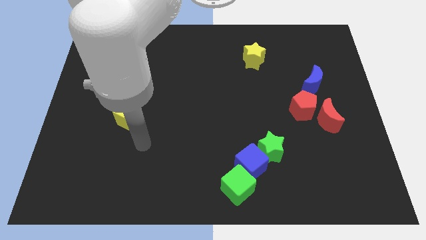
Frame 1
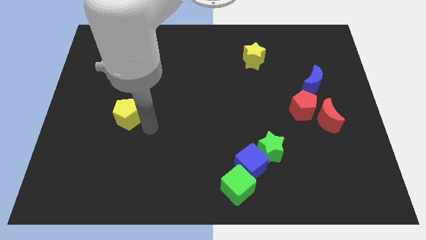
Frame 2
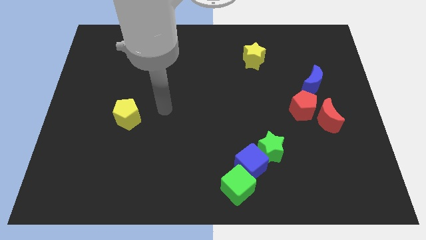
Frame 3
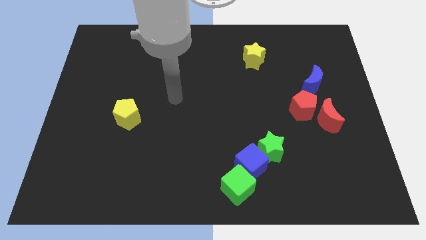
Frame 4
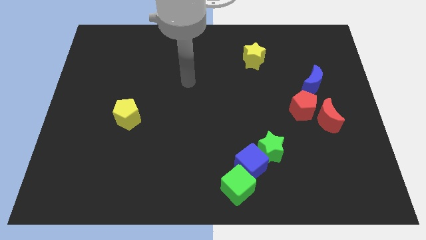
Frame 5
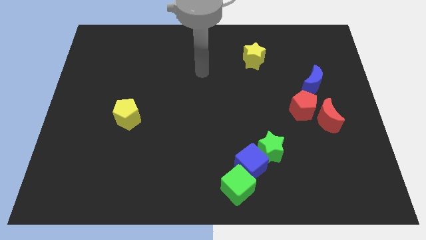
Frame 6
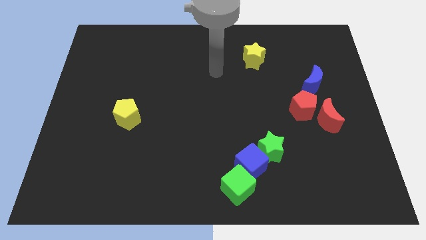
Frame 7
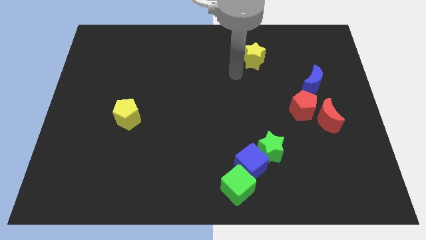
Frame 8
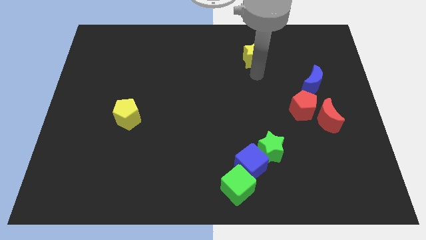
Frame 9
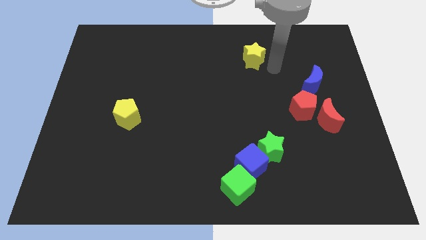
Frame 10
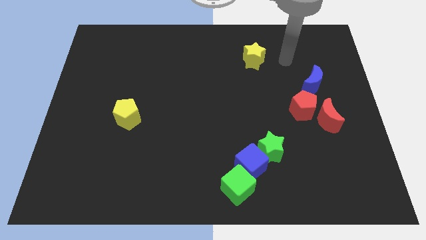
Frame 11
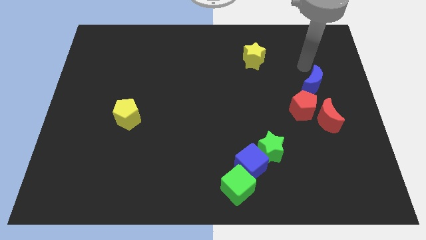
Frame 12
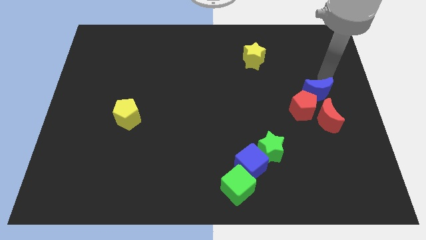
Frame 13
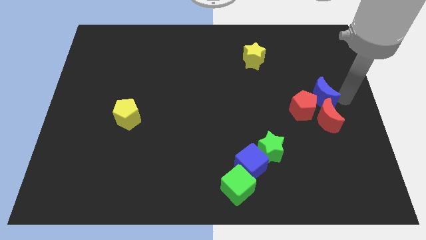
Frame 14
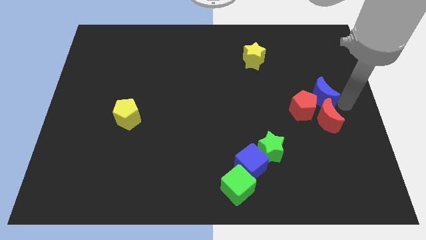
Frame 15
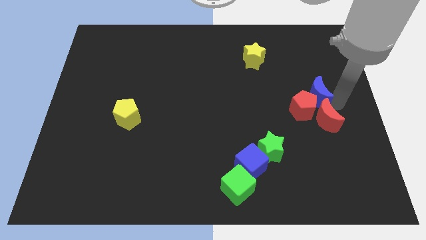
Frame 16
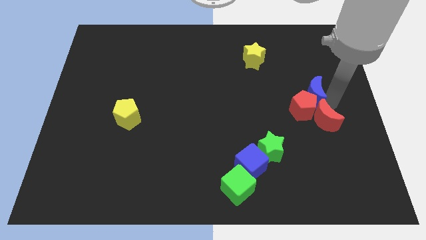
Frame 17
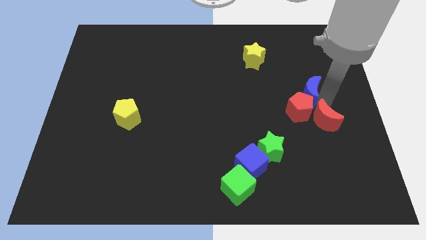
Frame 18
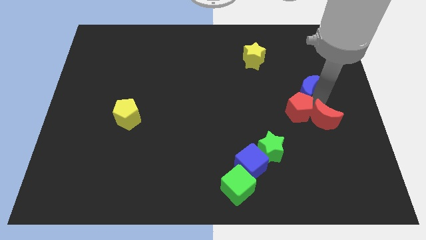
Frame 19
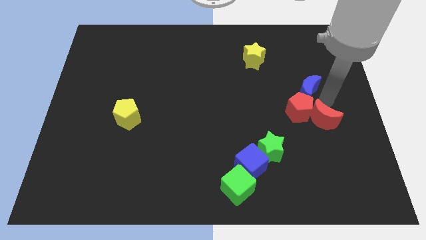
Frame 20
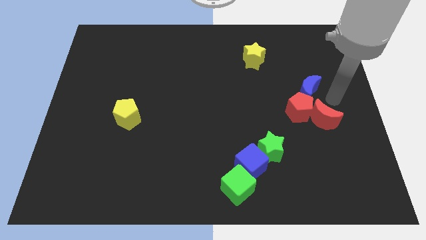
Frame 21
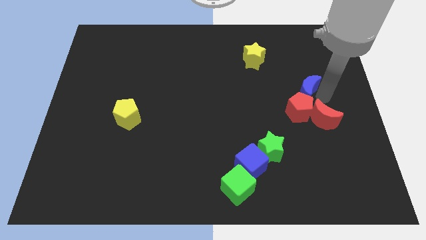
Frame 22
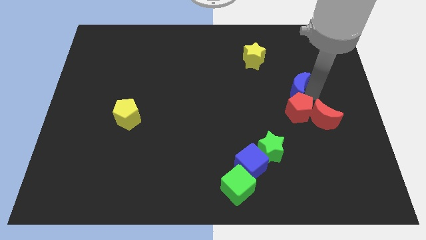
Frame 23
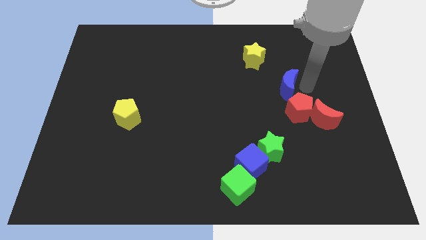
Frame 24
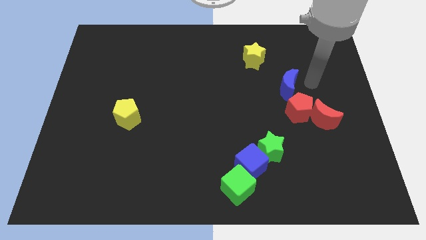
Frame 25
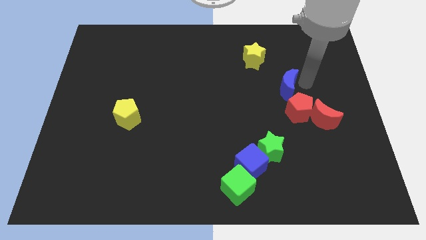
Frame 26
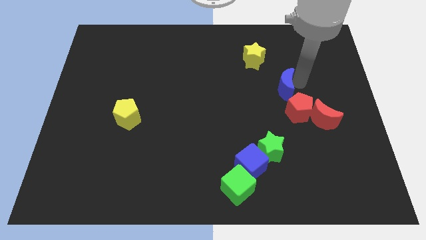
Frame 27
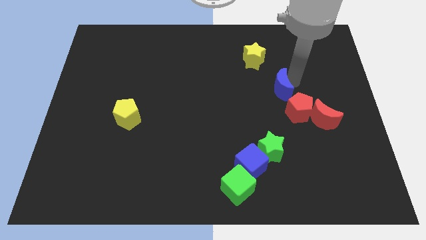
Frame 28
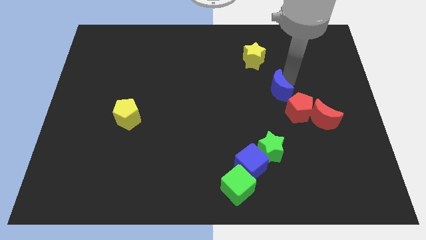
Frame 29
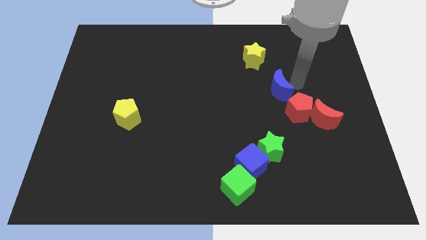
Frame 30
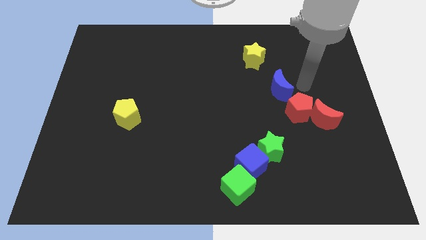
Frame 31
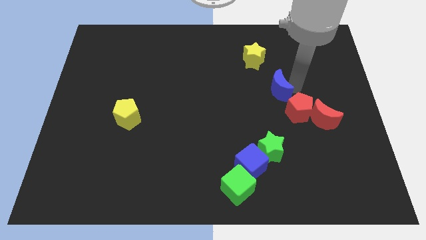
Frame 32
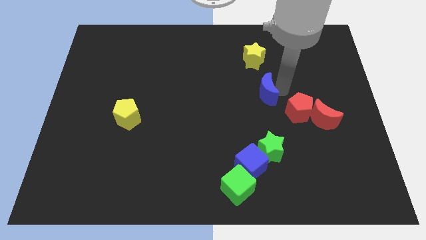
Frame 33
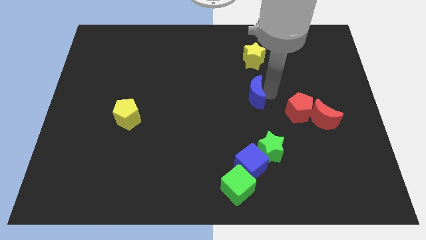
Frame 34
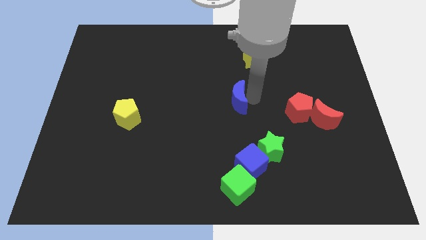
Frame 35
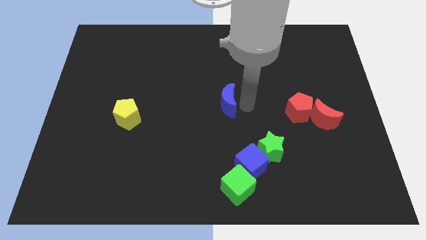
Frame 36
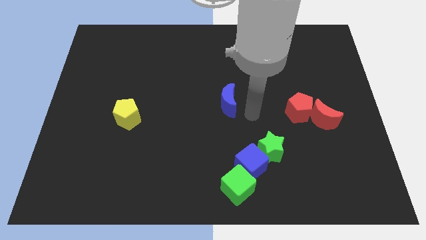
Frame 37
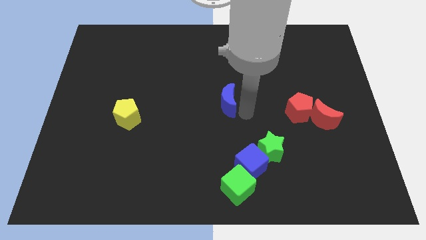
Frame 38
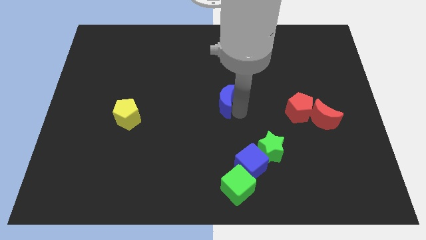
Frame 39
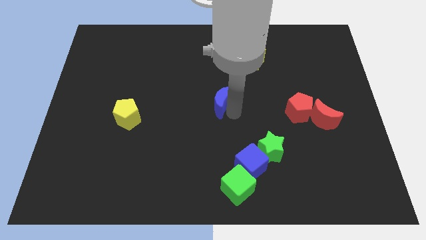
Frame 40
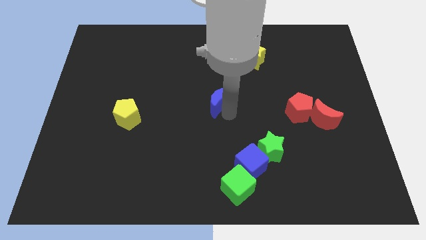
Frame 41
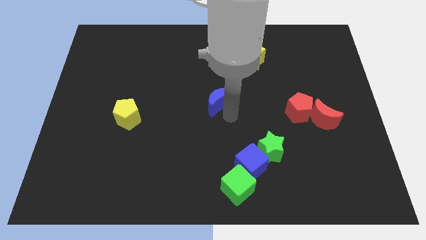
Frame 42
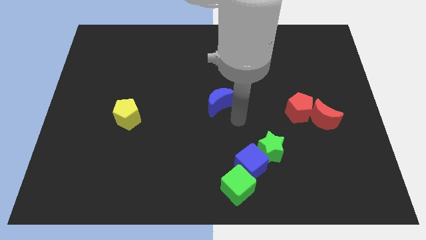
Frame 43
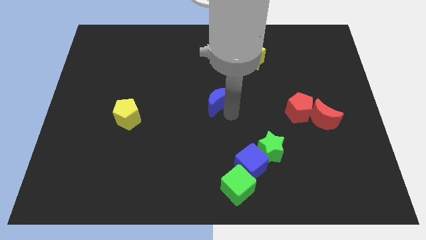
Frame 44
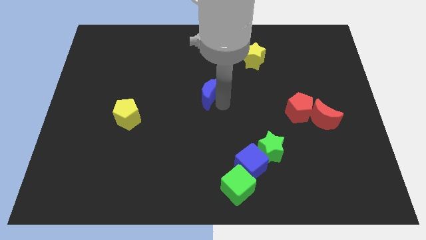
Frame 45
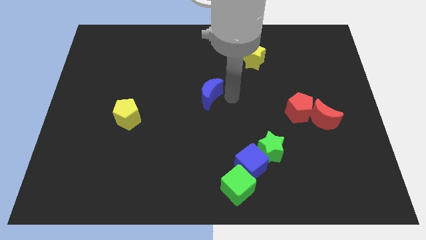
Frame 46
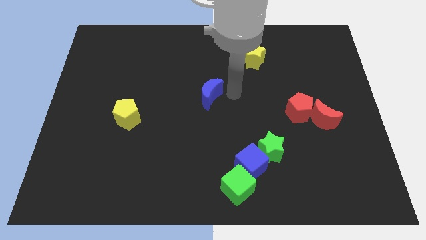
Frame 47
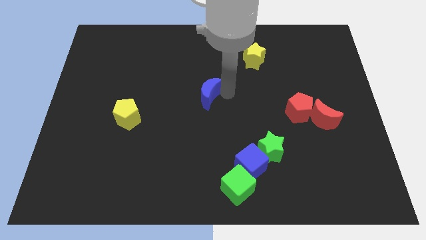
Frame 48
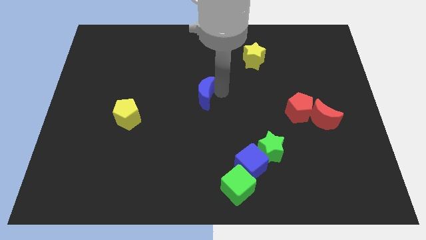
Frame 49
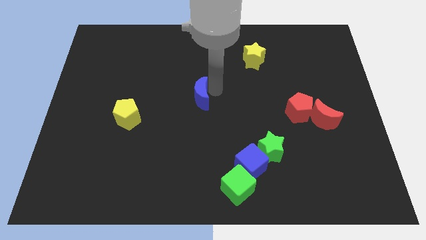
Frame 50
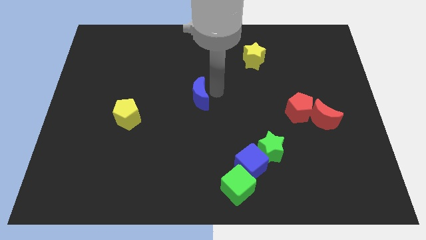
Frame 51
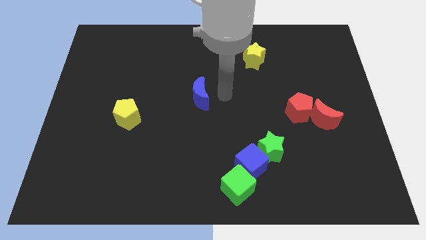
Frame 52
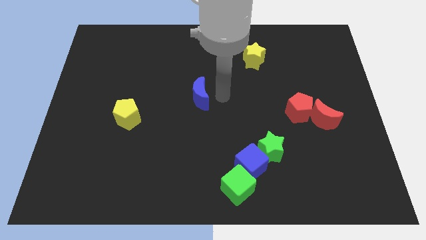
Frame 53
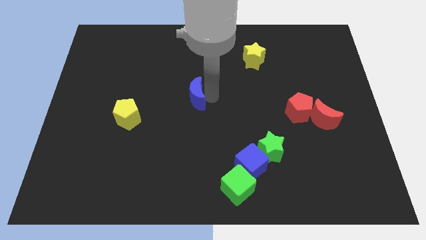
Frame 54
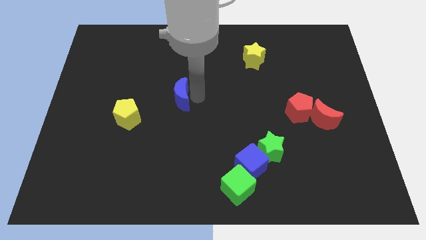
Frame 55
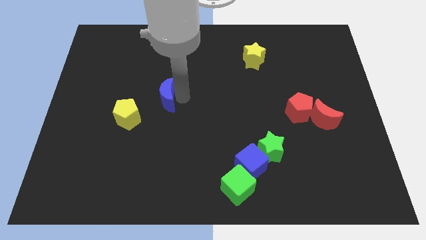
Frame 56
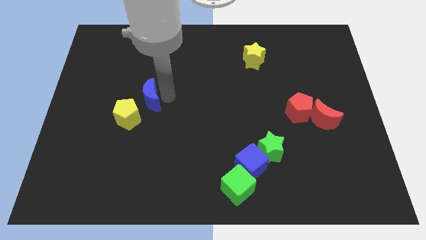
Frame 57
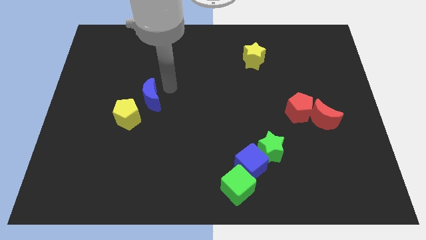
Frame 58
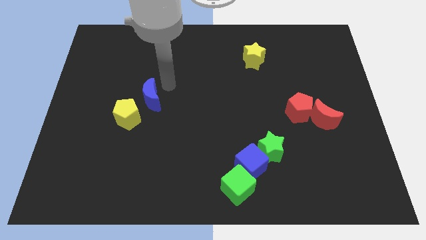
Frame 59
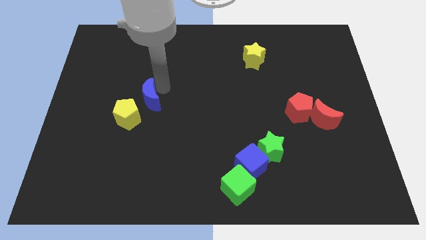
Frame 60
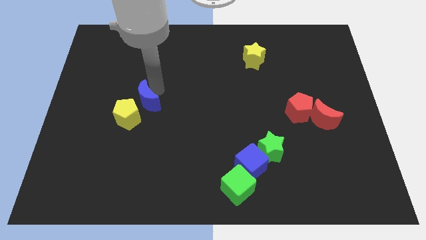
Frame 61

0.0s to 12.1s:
slide the blue moon towards the yellow pentagon

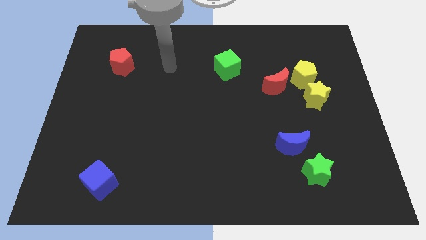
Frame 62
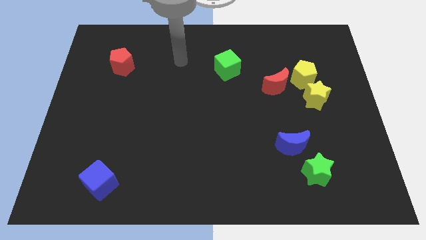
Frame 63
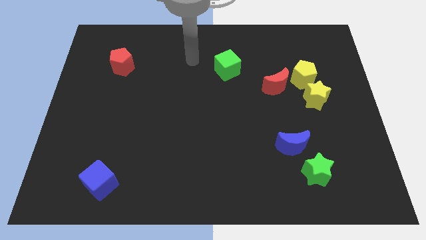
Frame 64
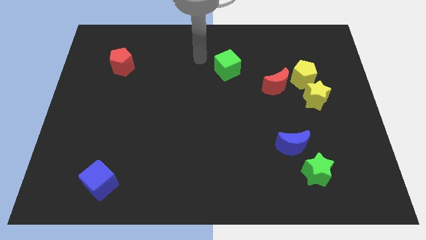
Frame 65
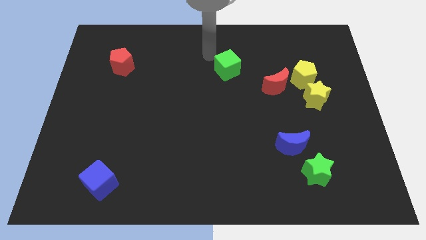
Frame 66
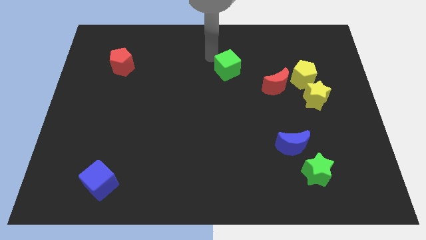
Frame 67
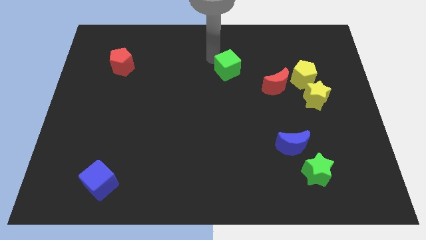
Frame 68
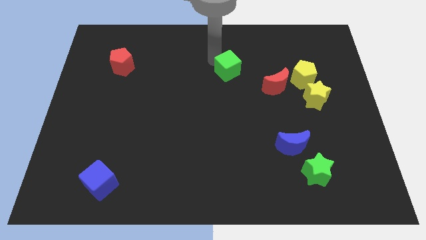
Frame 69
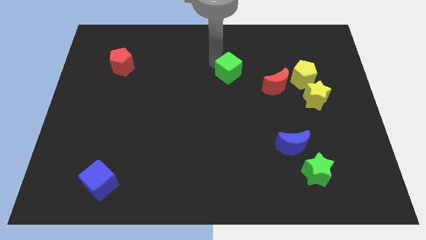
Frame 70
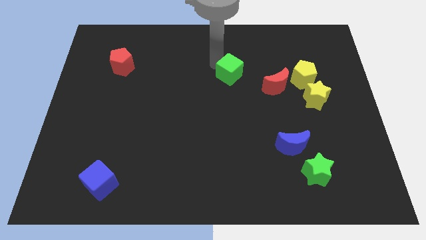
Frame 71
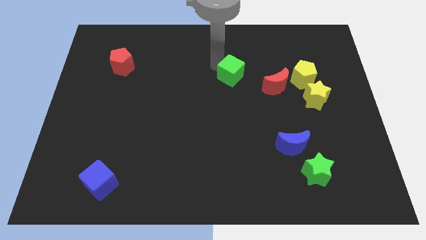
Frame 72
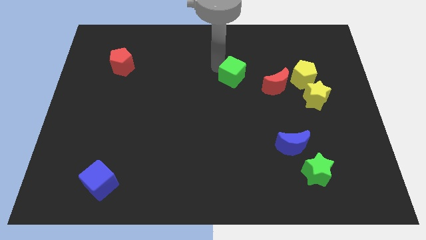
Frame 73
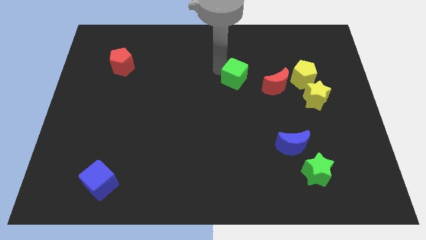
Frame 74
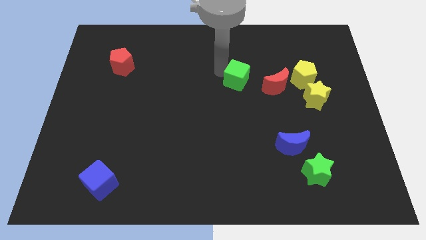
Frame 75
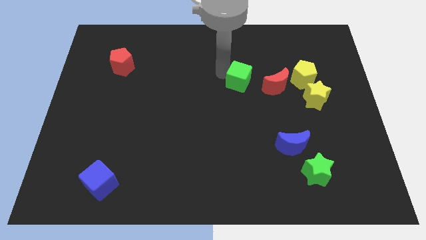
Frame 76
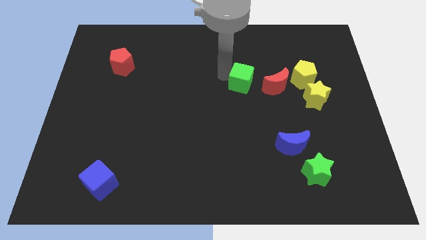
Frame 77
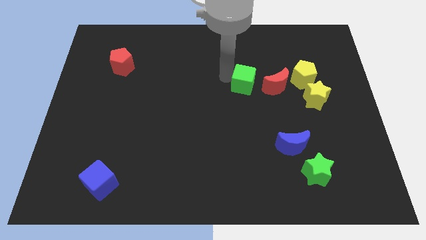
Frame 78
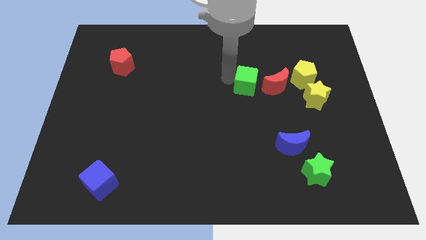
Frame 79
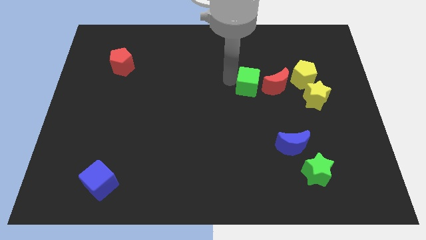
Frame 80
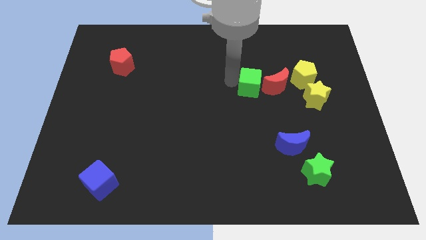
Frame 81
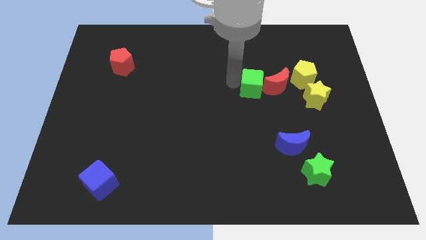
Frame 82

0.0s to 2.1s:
push the green cube next to the red moon
